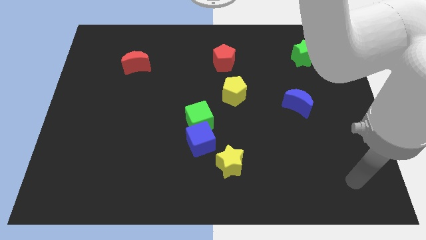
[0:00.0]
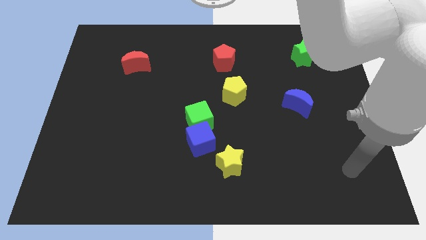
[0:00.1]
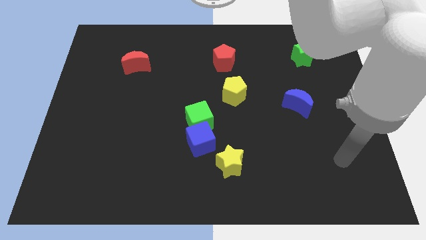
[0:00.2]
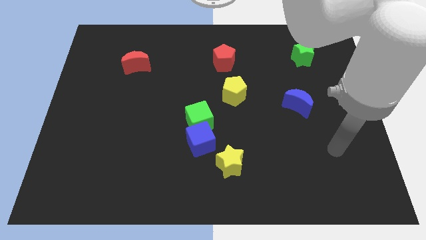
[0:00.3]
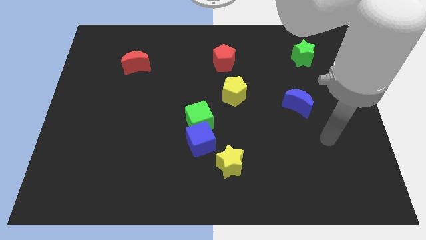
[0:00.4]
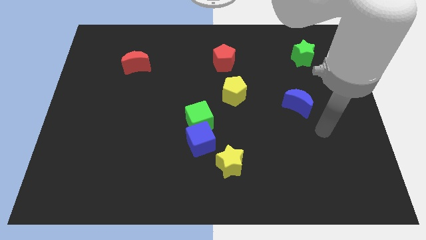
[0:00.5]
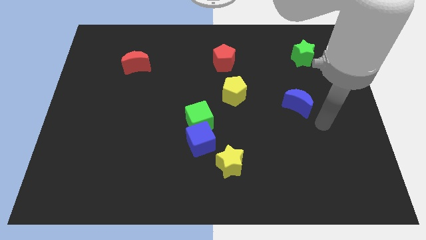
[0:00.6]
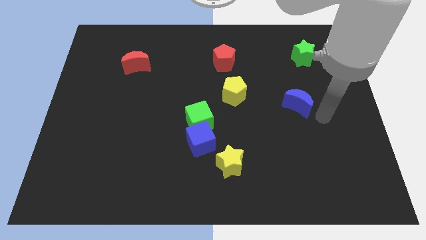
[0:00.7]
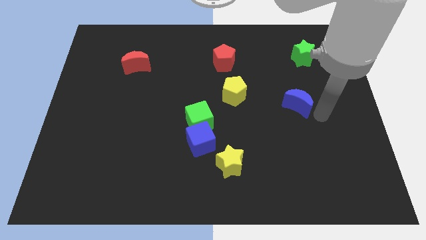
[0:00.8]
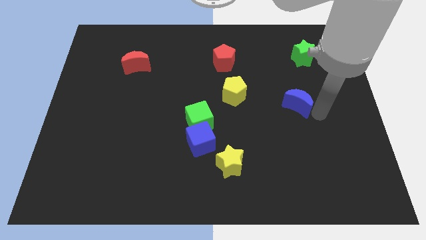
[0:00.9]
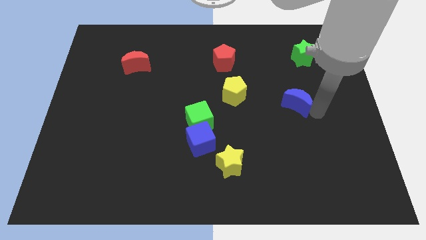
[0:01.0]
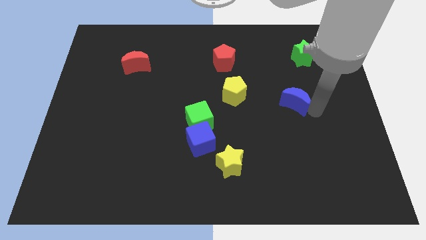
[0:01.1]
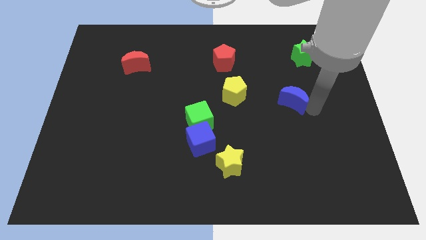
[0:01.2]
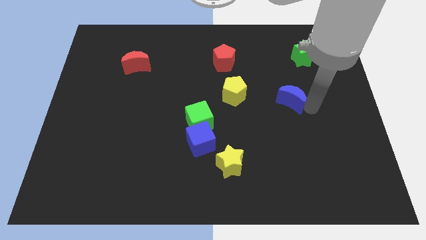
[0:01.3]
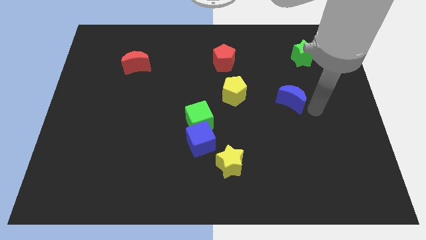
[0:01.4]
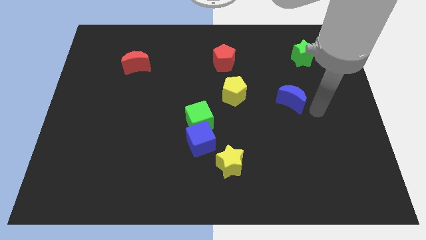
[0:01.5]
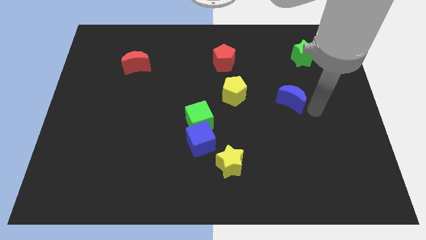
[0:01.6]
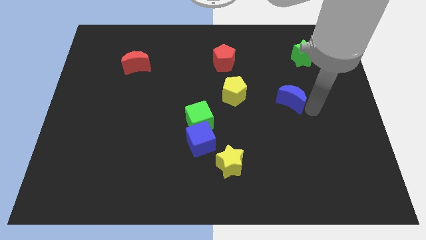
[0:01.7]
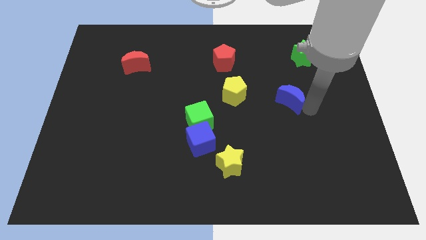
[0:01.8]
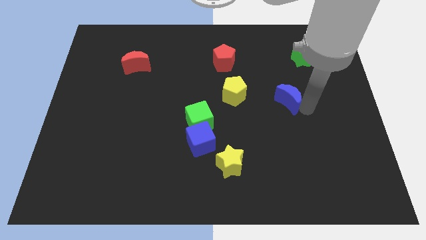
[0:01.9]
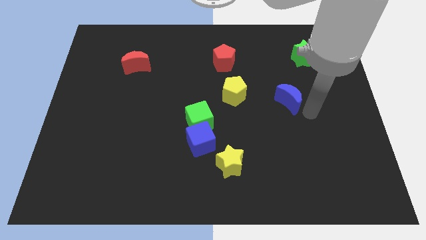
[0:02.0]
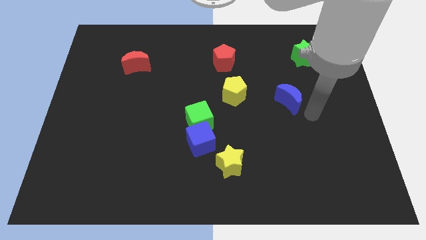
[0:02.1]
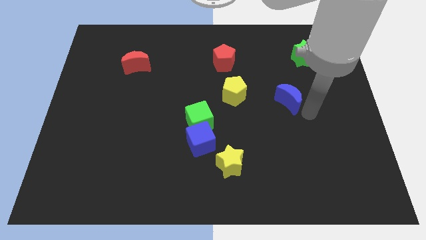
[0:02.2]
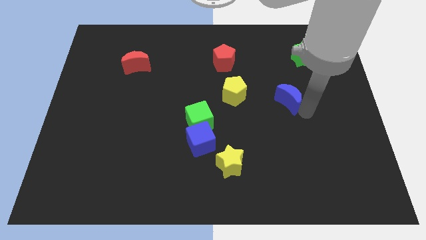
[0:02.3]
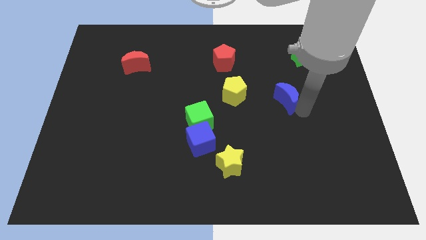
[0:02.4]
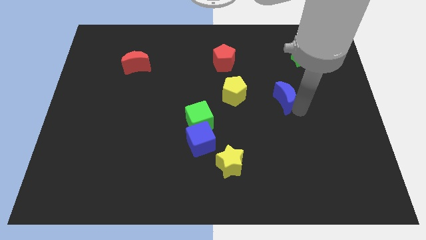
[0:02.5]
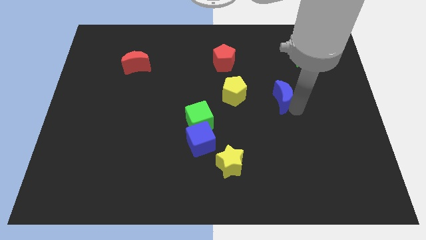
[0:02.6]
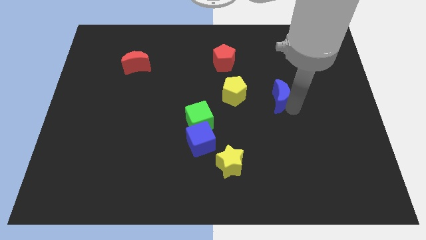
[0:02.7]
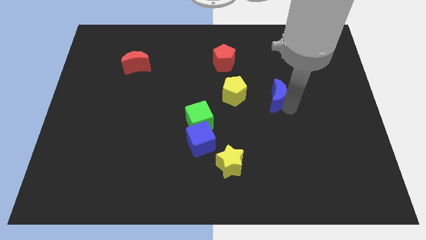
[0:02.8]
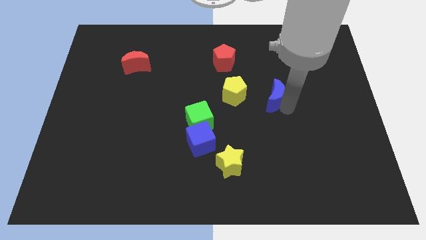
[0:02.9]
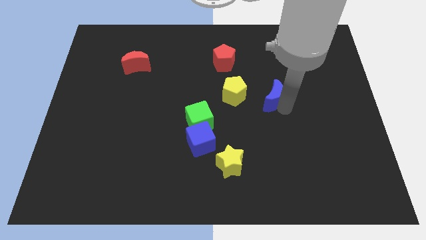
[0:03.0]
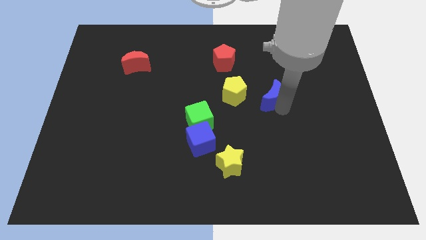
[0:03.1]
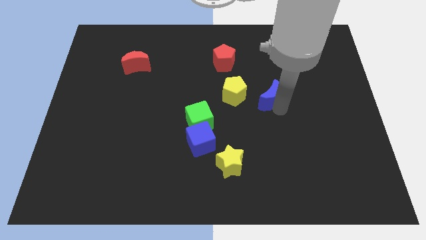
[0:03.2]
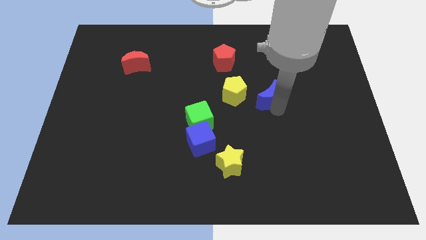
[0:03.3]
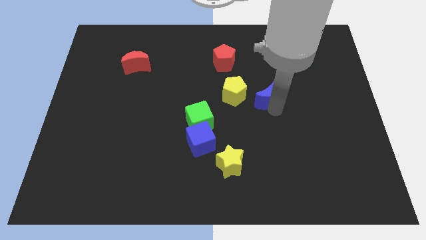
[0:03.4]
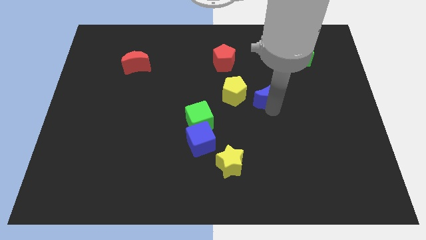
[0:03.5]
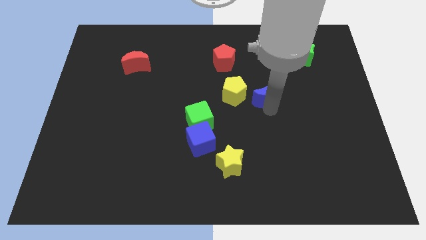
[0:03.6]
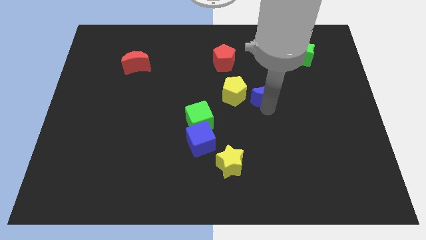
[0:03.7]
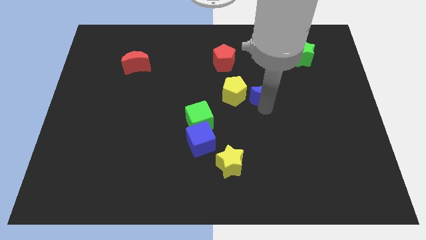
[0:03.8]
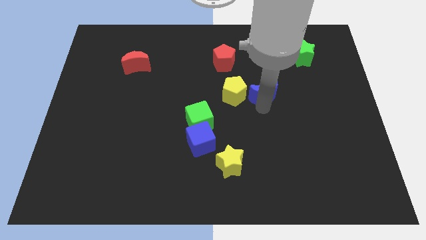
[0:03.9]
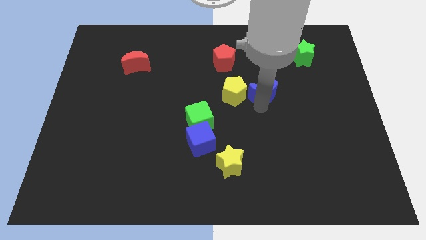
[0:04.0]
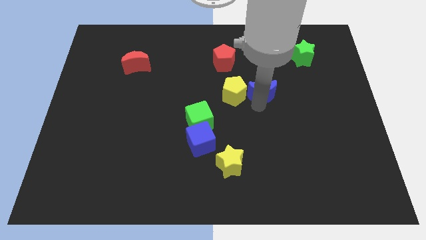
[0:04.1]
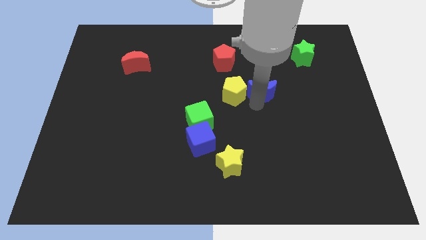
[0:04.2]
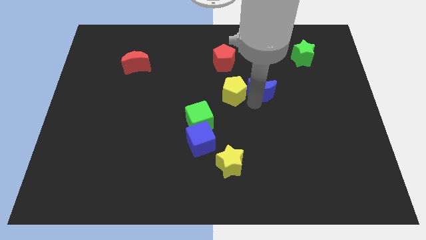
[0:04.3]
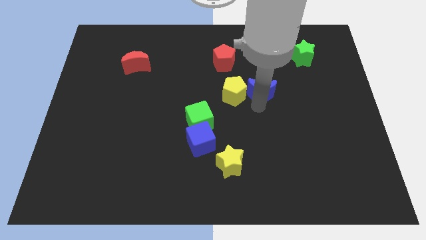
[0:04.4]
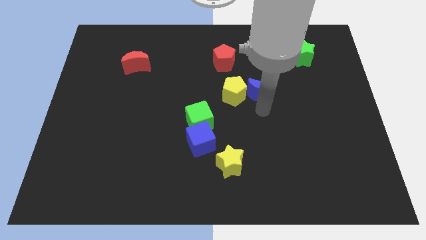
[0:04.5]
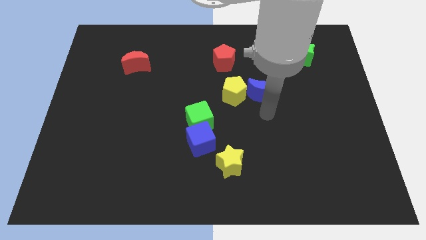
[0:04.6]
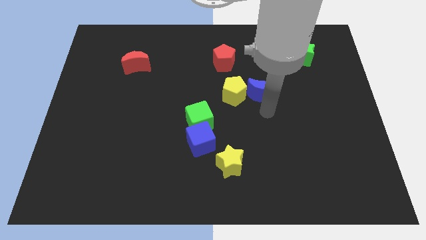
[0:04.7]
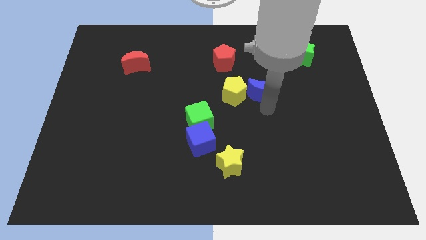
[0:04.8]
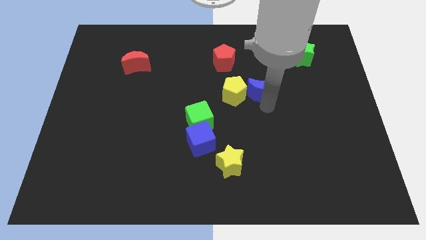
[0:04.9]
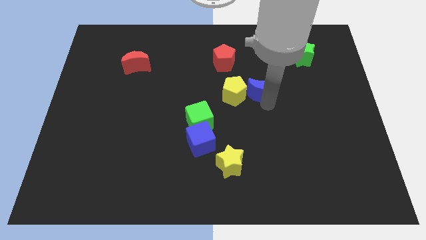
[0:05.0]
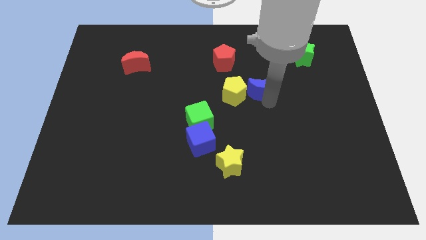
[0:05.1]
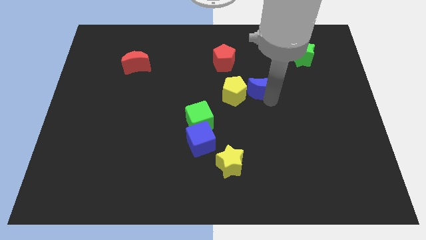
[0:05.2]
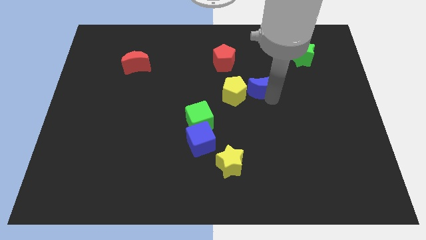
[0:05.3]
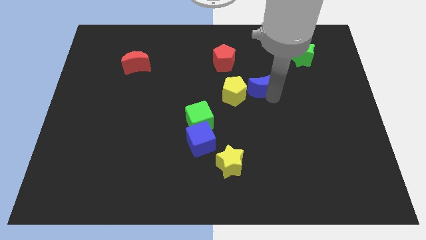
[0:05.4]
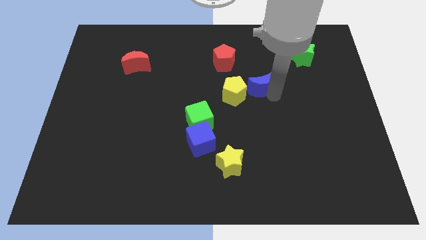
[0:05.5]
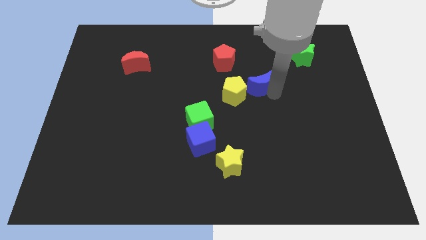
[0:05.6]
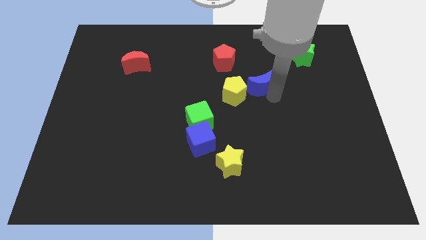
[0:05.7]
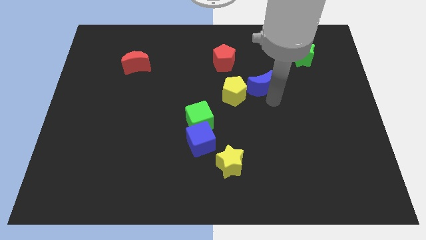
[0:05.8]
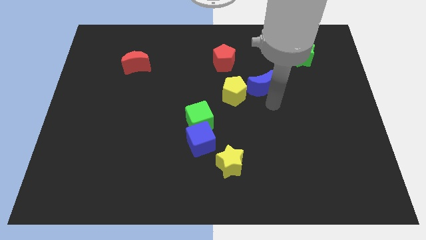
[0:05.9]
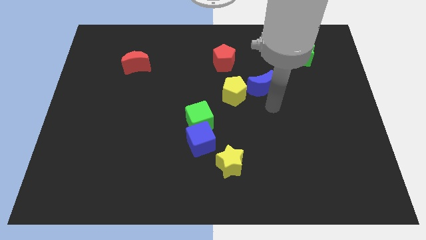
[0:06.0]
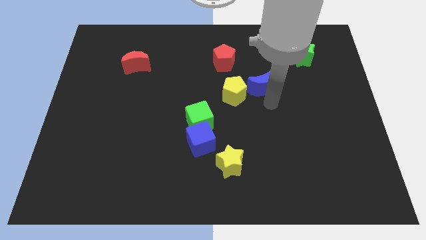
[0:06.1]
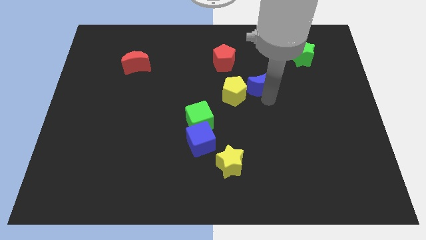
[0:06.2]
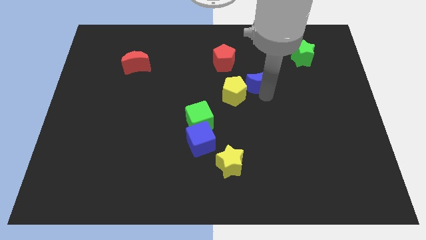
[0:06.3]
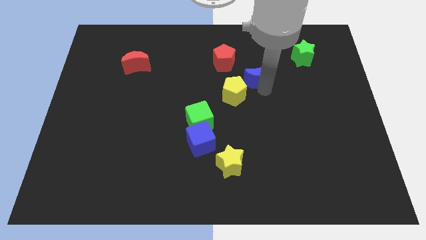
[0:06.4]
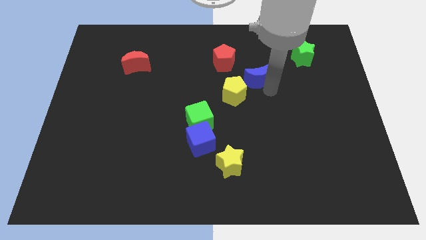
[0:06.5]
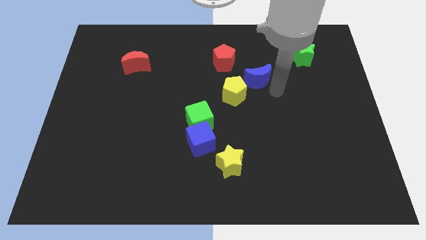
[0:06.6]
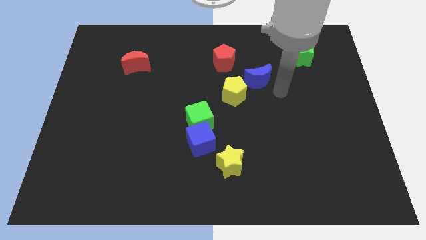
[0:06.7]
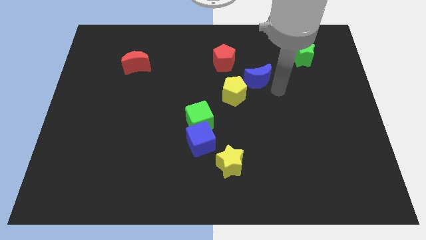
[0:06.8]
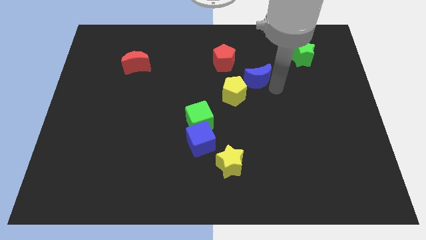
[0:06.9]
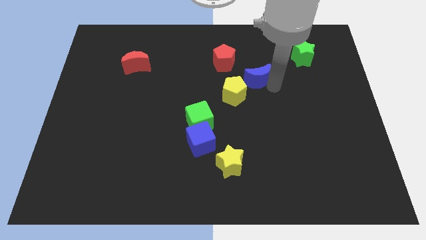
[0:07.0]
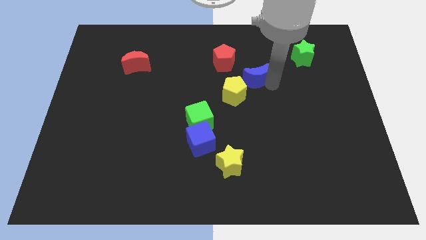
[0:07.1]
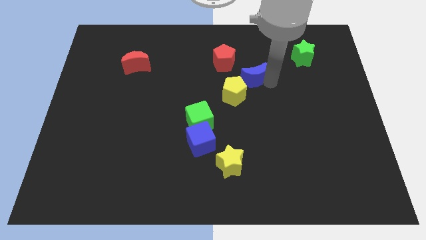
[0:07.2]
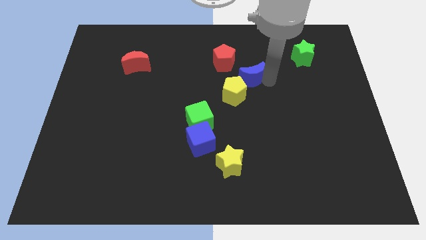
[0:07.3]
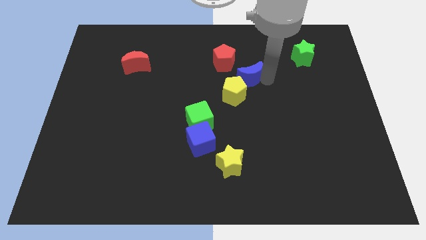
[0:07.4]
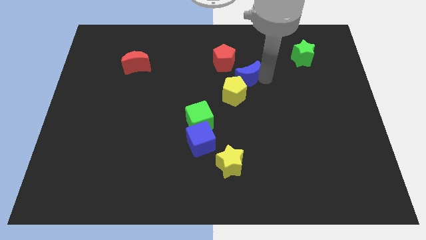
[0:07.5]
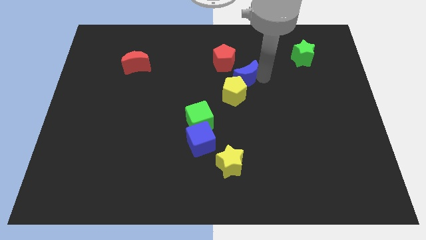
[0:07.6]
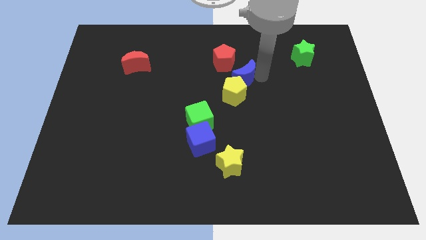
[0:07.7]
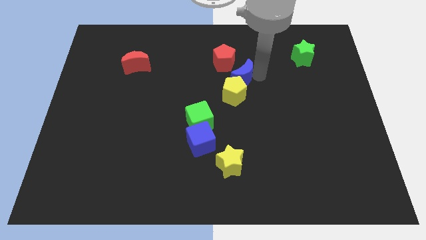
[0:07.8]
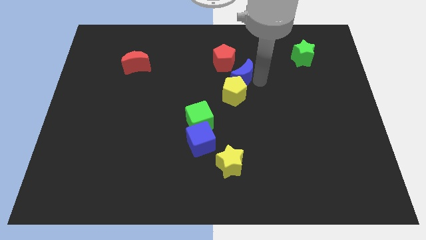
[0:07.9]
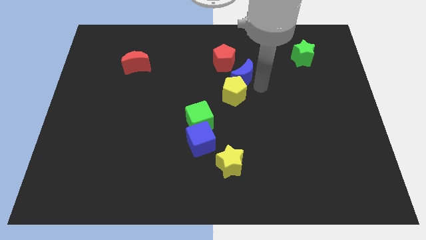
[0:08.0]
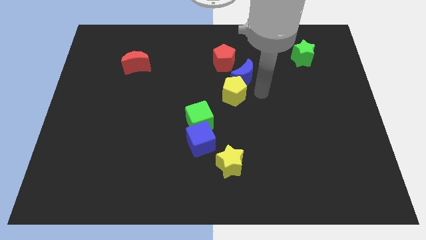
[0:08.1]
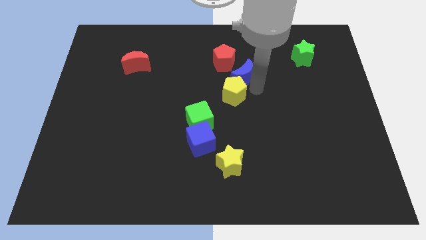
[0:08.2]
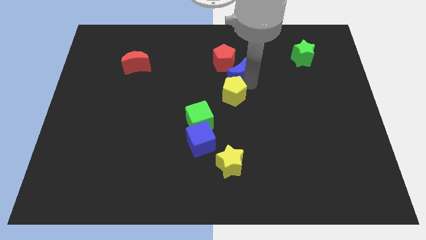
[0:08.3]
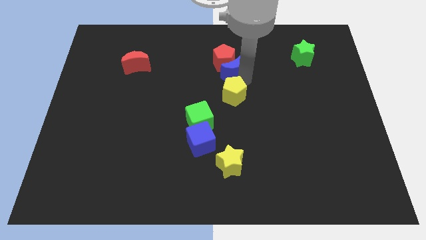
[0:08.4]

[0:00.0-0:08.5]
move the blue moon towards the red pentagon
